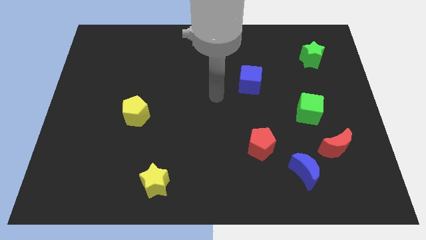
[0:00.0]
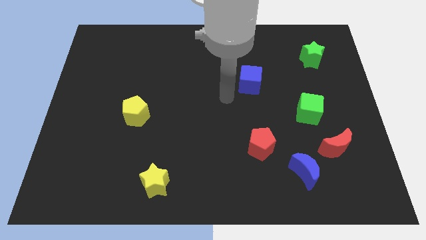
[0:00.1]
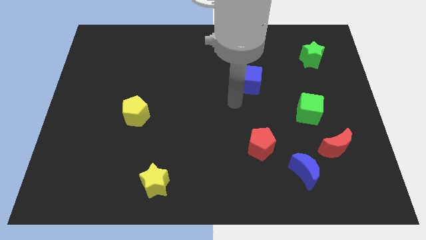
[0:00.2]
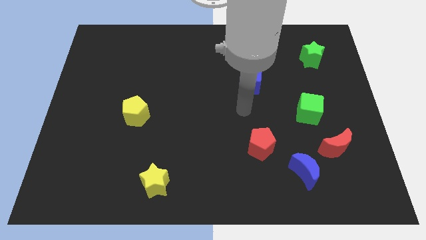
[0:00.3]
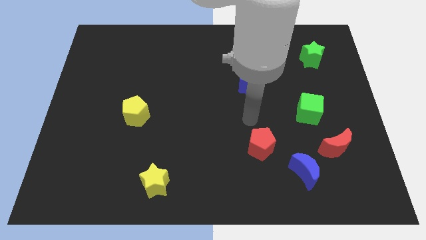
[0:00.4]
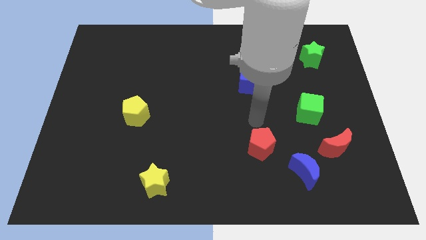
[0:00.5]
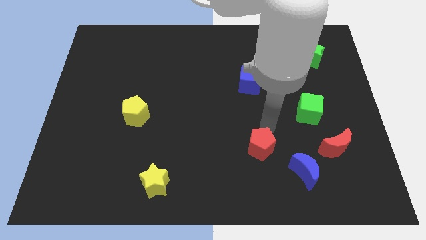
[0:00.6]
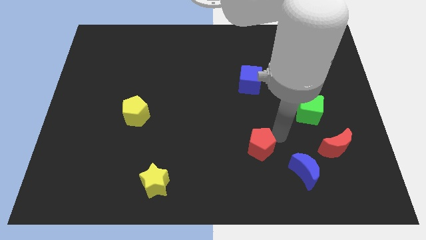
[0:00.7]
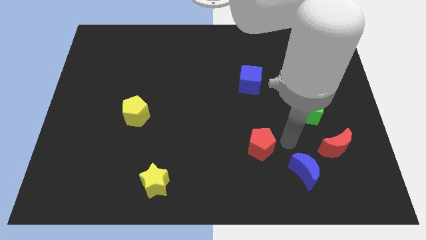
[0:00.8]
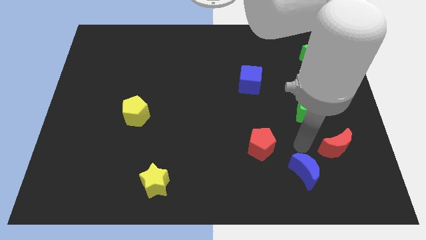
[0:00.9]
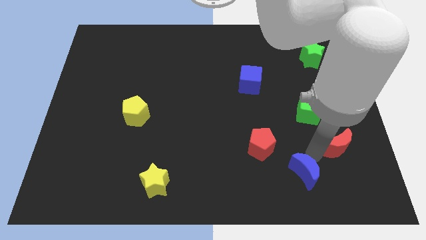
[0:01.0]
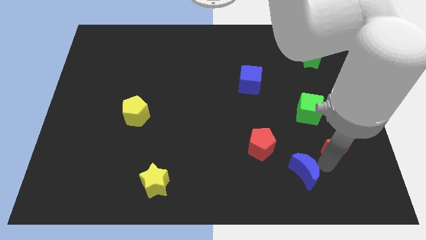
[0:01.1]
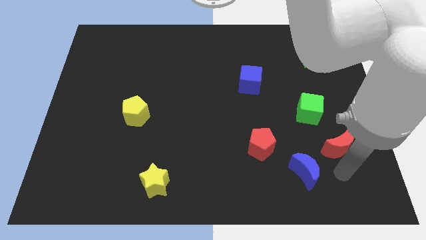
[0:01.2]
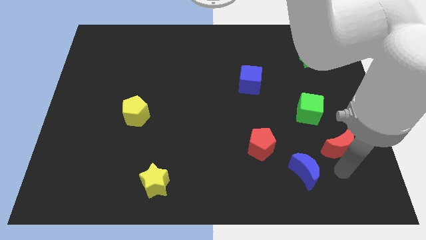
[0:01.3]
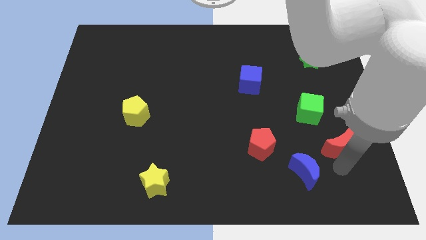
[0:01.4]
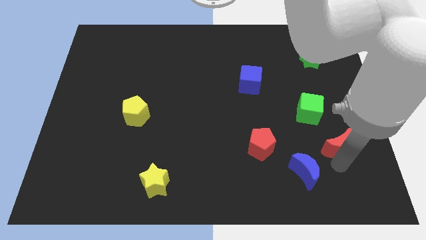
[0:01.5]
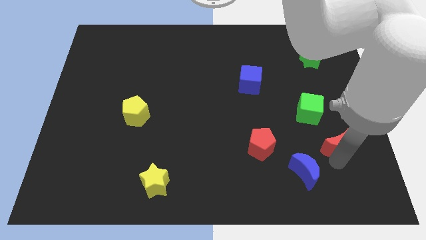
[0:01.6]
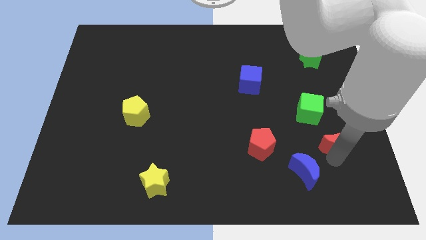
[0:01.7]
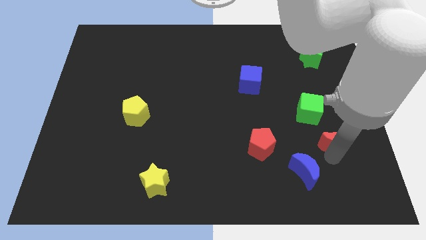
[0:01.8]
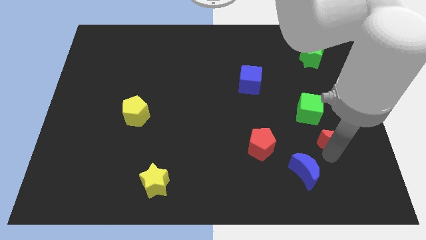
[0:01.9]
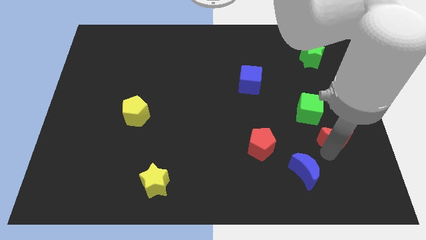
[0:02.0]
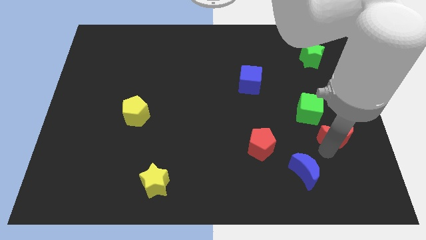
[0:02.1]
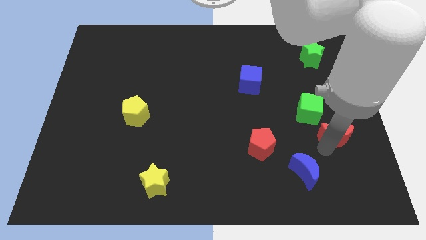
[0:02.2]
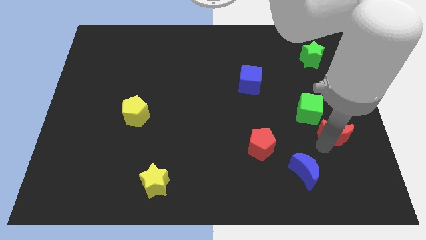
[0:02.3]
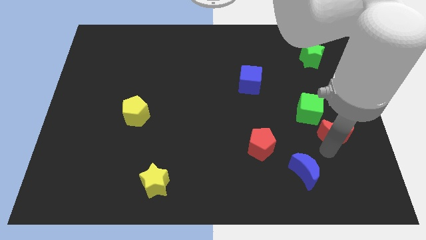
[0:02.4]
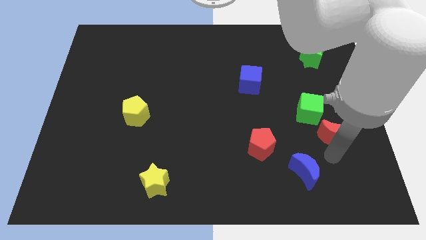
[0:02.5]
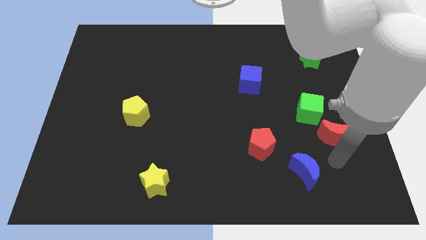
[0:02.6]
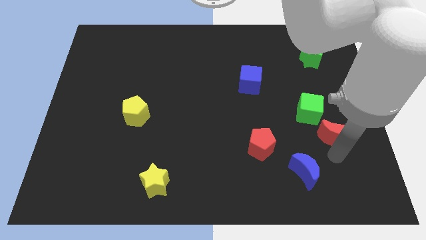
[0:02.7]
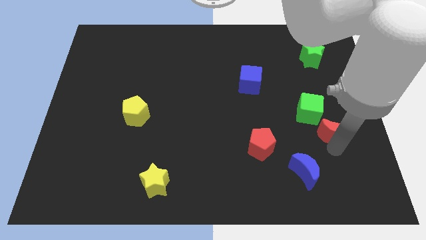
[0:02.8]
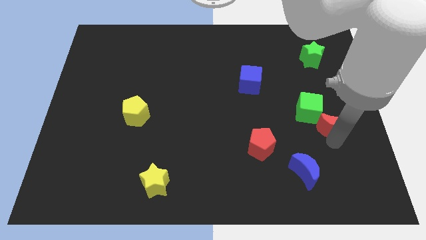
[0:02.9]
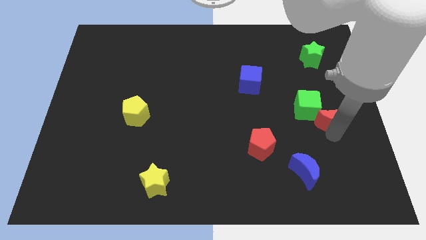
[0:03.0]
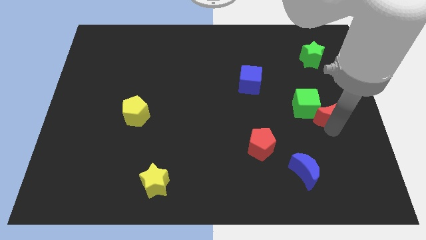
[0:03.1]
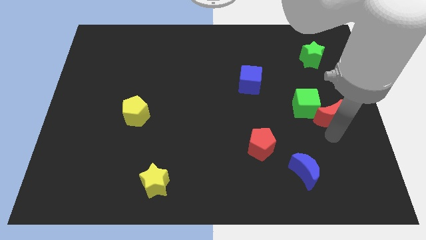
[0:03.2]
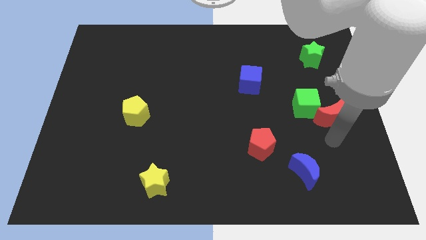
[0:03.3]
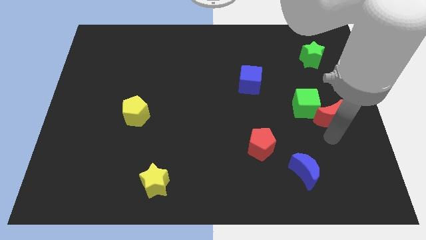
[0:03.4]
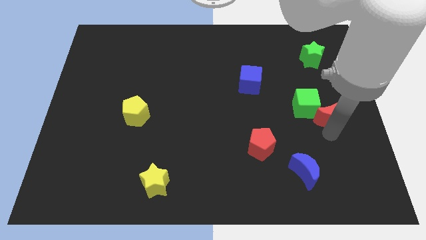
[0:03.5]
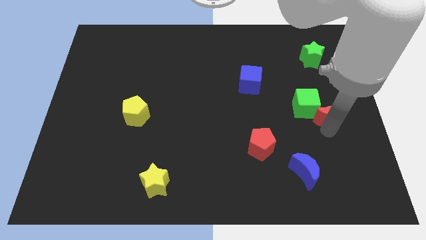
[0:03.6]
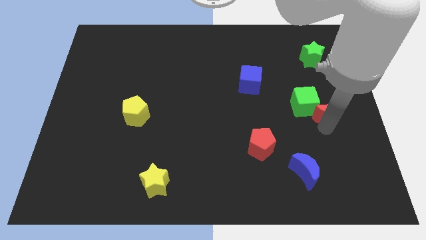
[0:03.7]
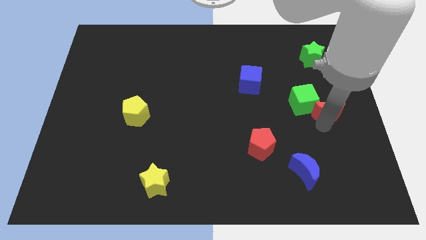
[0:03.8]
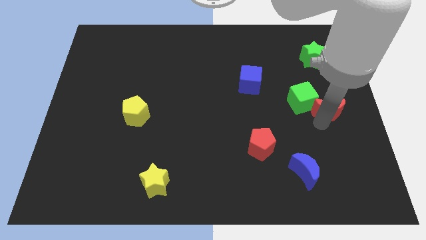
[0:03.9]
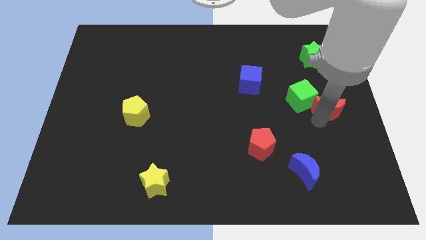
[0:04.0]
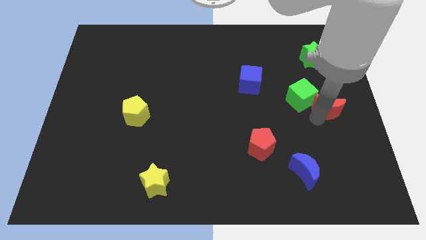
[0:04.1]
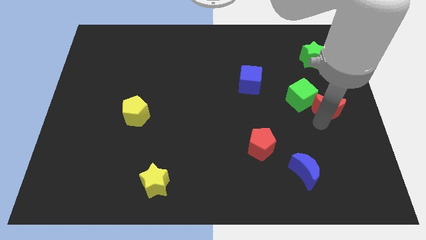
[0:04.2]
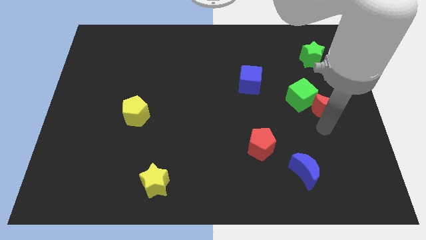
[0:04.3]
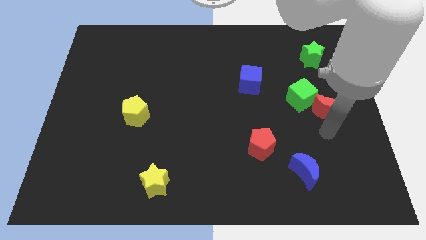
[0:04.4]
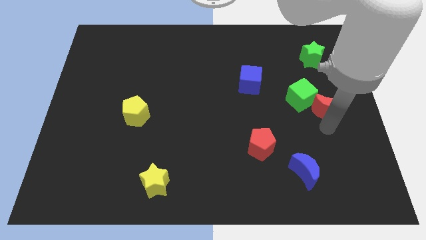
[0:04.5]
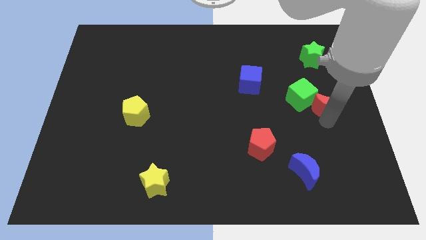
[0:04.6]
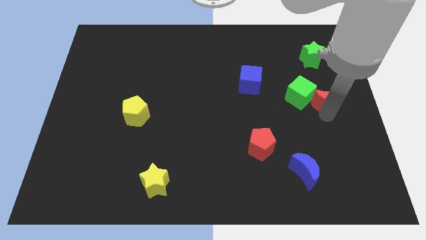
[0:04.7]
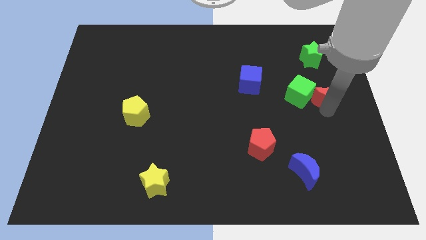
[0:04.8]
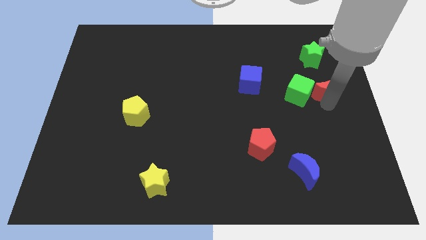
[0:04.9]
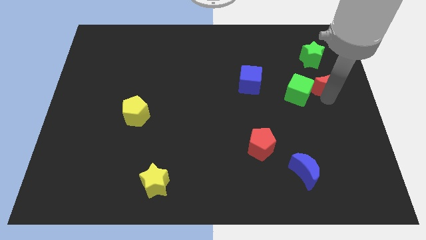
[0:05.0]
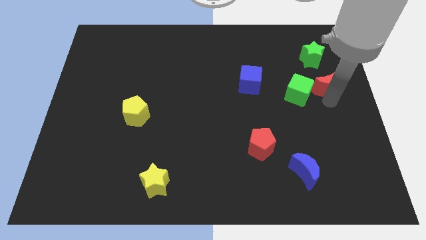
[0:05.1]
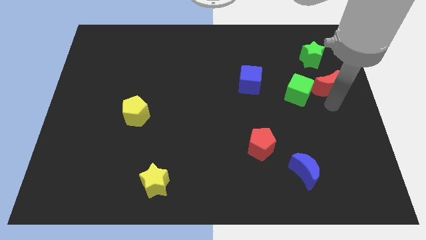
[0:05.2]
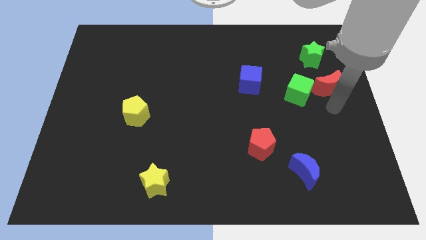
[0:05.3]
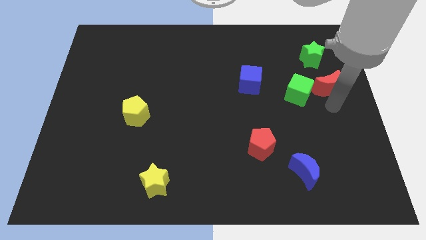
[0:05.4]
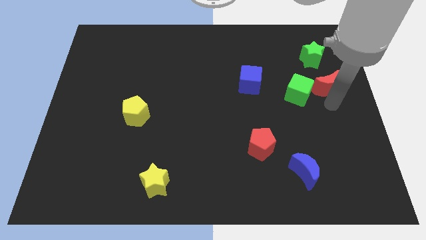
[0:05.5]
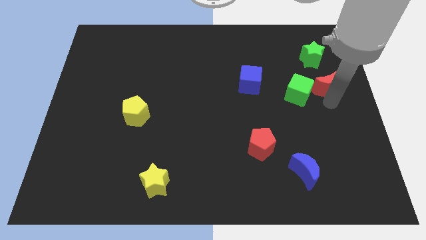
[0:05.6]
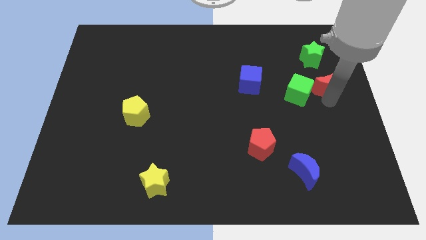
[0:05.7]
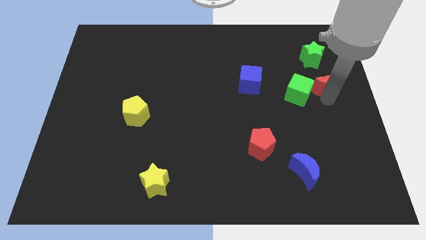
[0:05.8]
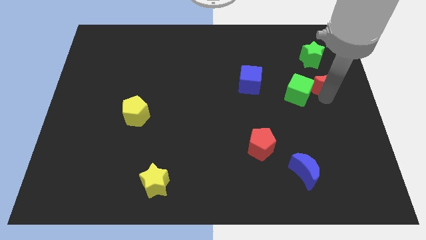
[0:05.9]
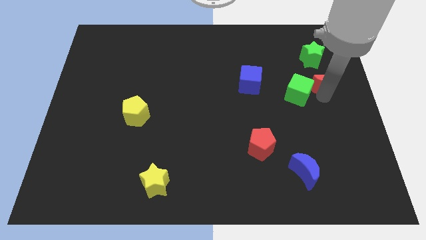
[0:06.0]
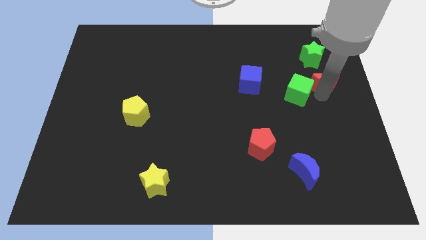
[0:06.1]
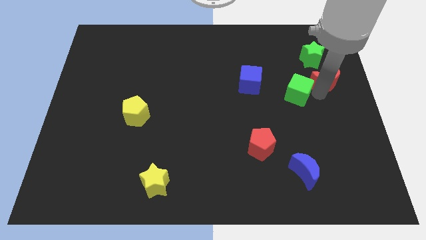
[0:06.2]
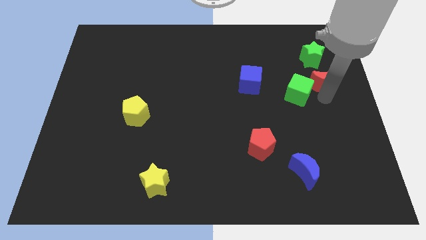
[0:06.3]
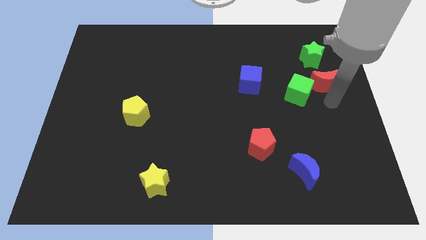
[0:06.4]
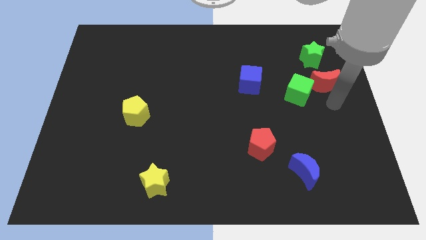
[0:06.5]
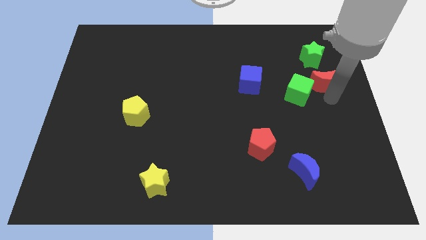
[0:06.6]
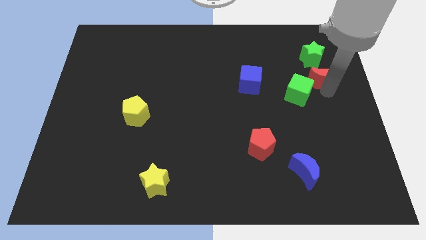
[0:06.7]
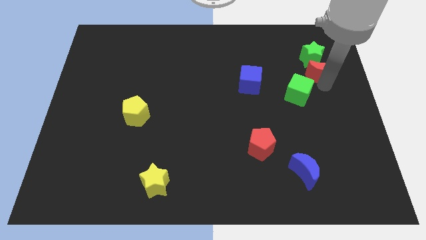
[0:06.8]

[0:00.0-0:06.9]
put the red moon close to the green star

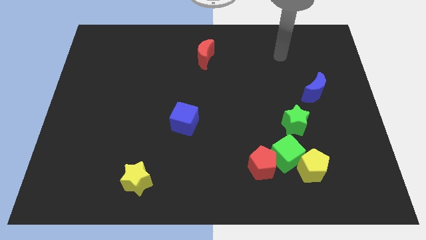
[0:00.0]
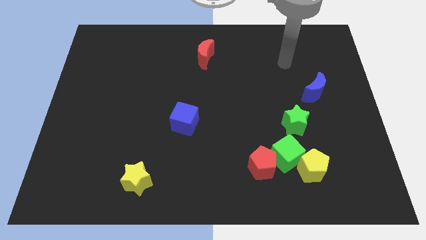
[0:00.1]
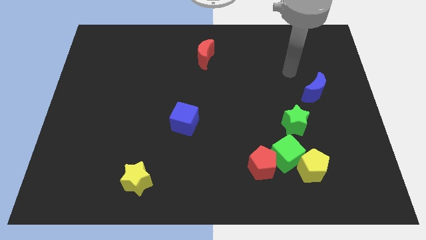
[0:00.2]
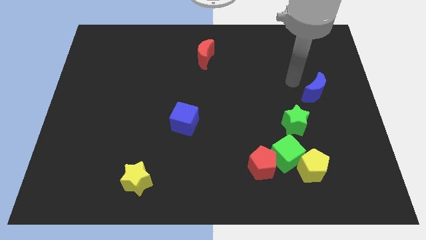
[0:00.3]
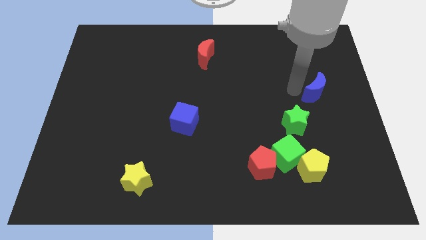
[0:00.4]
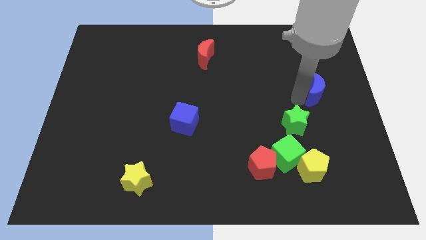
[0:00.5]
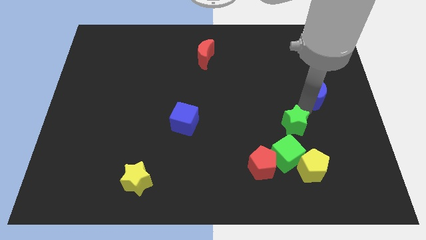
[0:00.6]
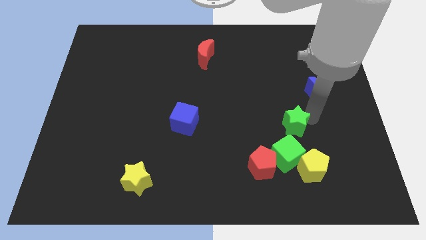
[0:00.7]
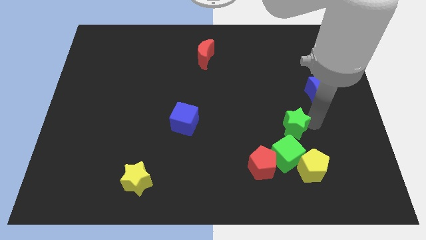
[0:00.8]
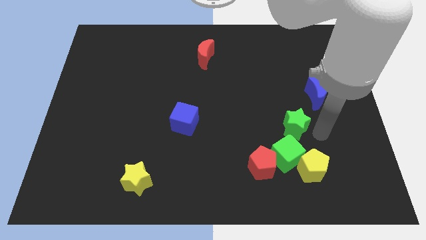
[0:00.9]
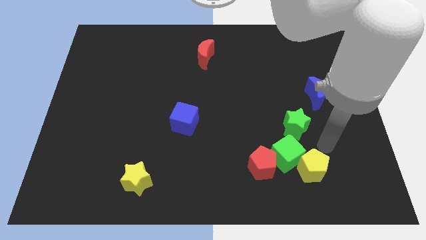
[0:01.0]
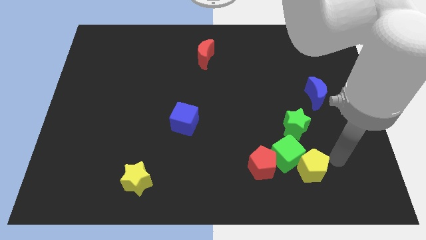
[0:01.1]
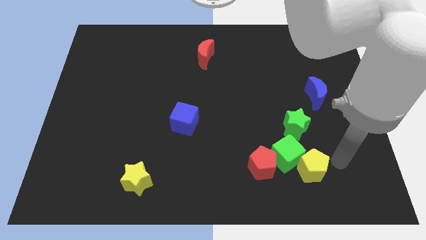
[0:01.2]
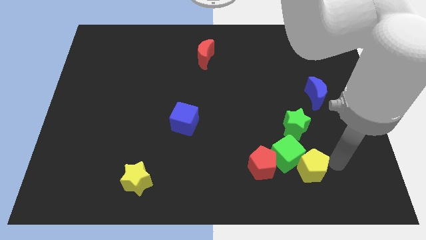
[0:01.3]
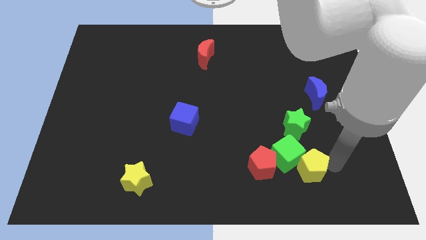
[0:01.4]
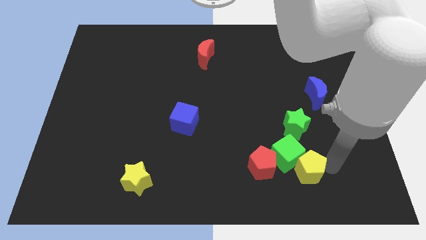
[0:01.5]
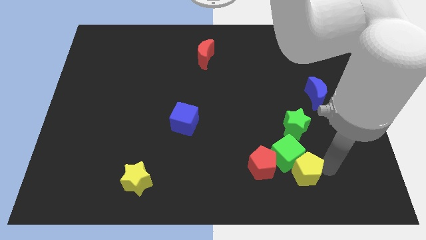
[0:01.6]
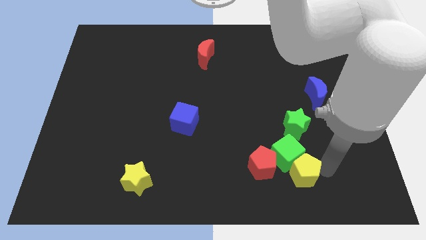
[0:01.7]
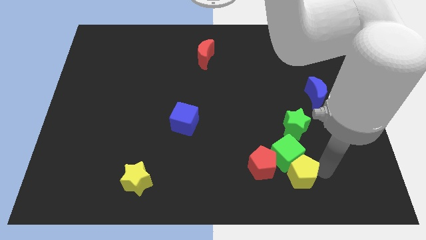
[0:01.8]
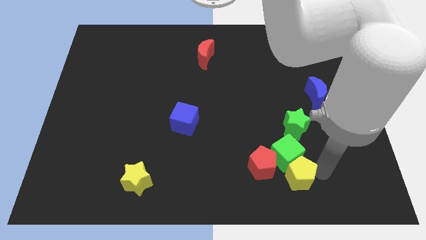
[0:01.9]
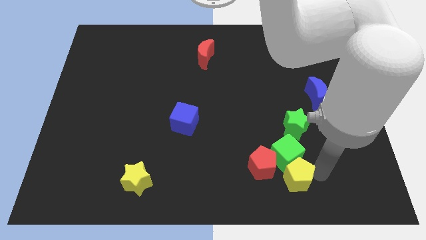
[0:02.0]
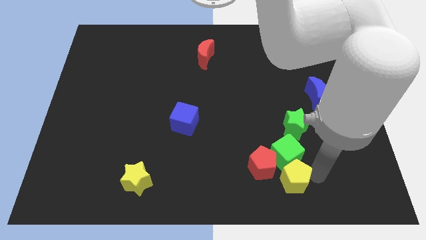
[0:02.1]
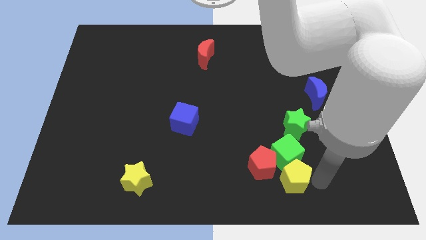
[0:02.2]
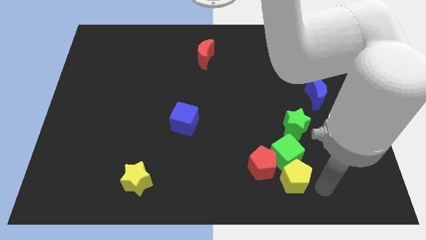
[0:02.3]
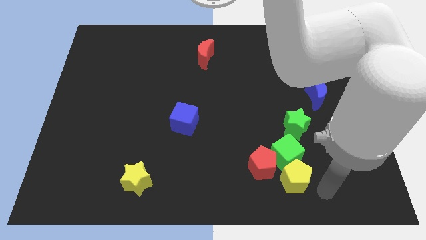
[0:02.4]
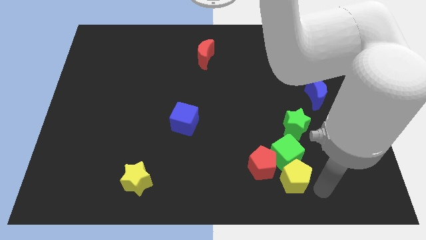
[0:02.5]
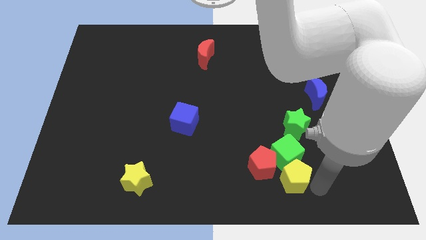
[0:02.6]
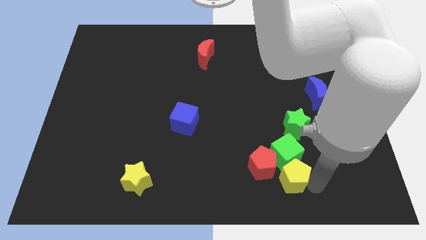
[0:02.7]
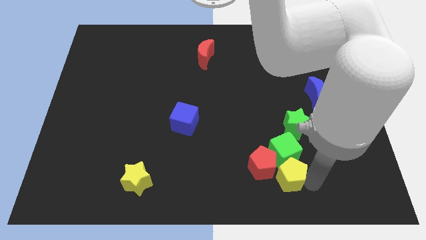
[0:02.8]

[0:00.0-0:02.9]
push the yellow pentagon towards the red pentagon
